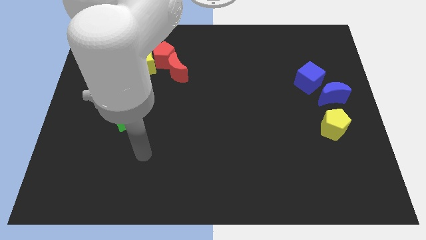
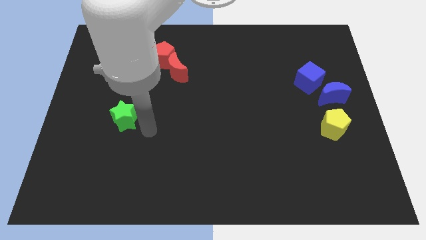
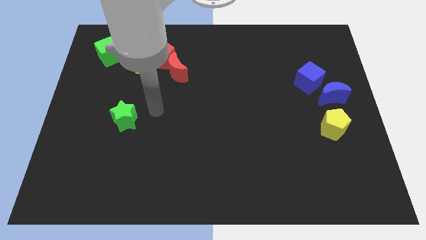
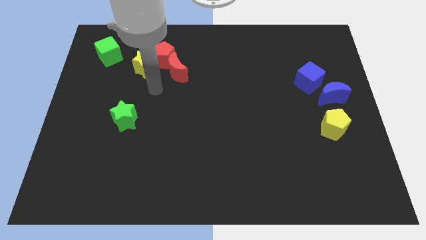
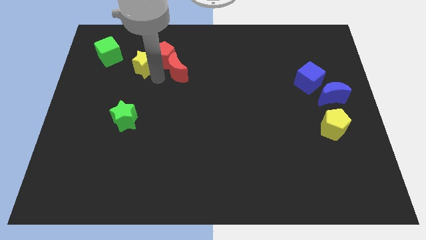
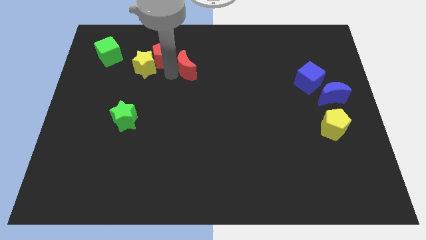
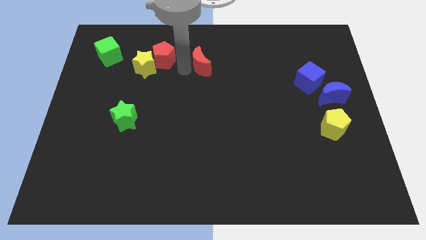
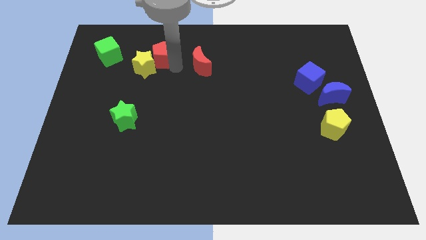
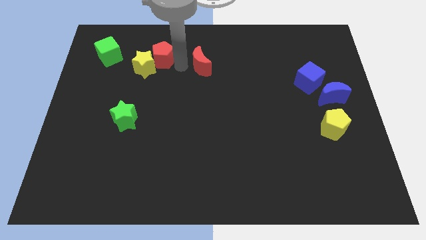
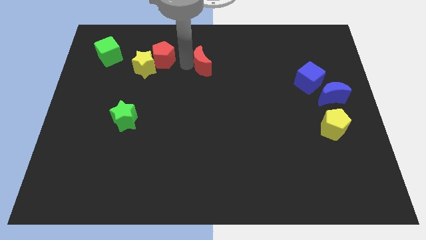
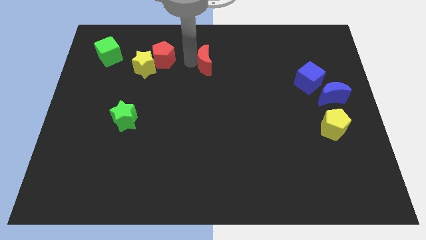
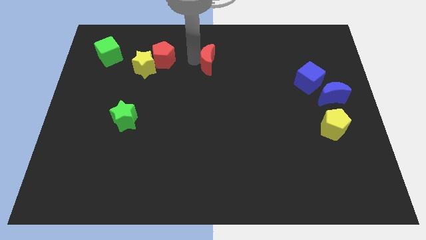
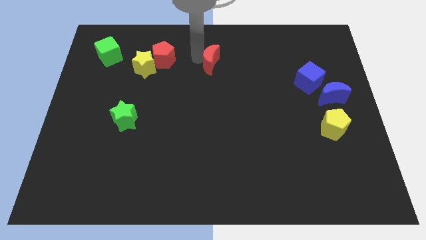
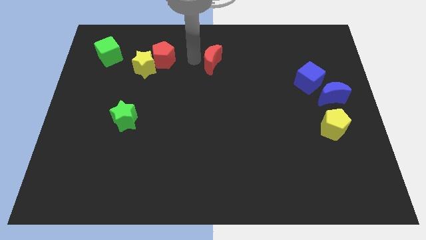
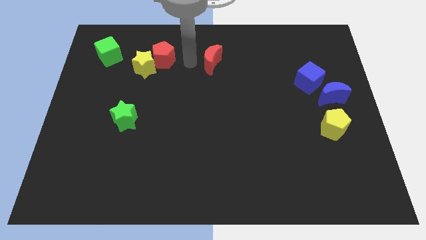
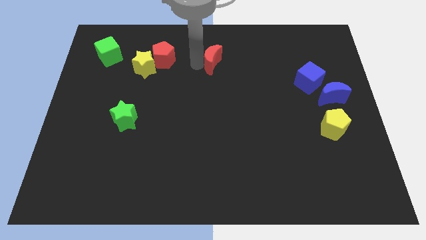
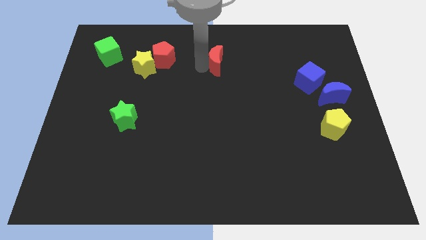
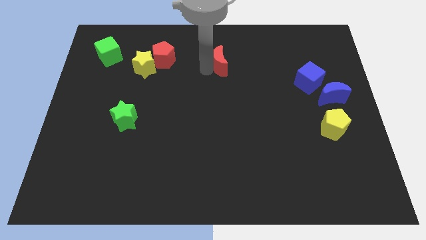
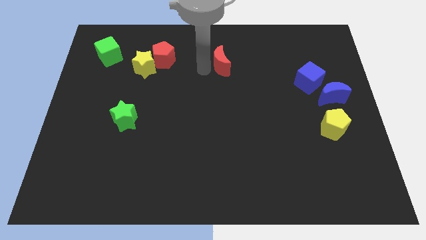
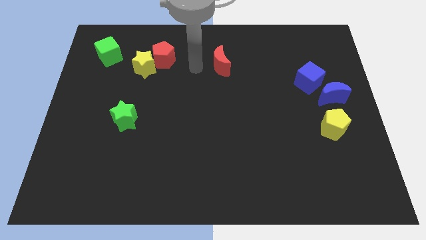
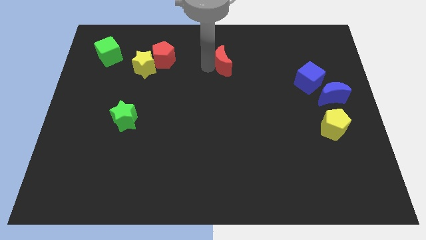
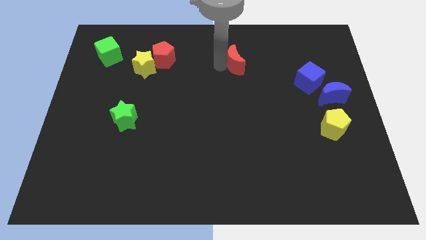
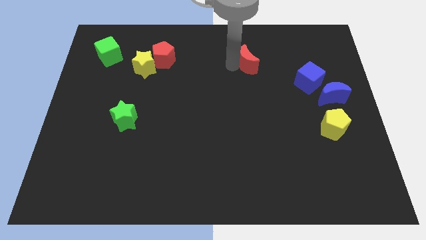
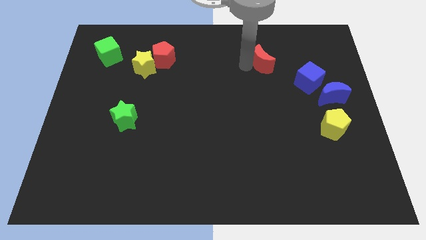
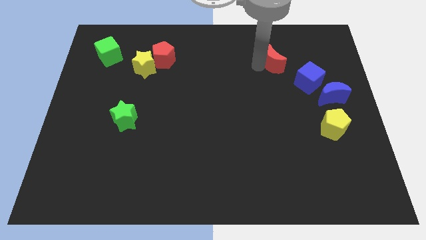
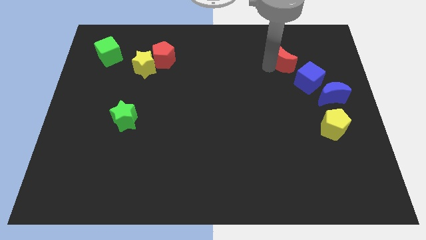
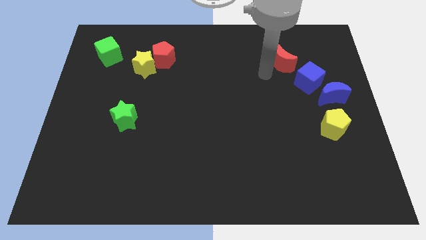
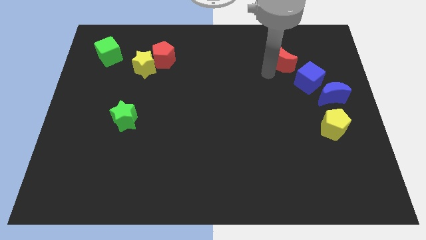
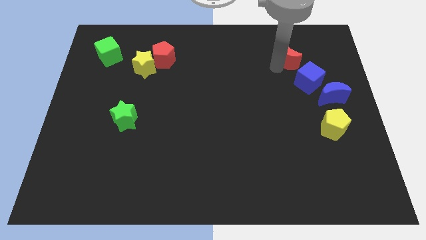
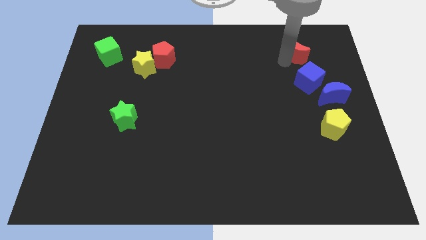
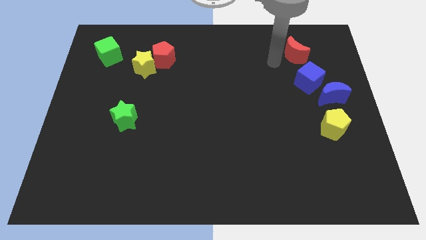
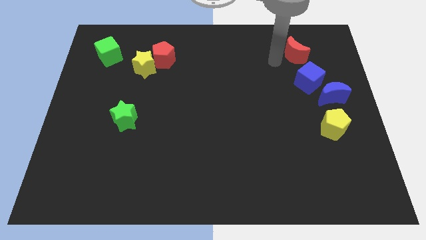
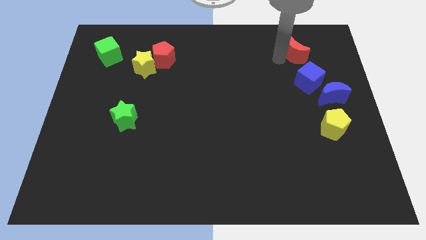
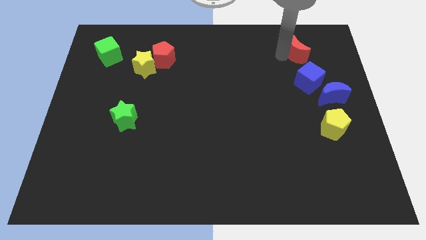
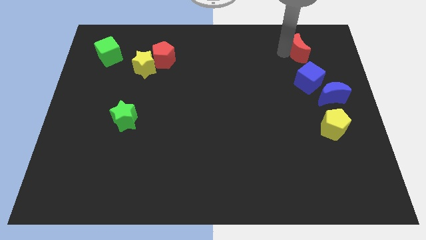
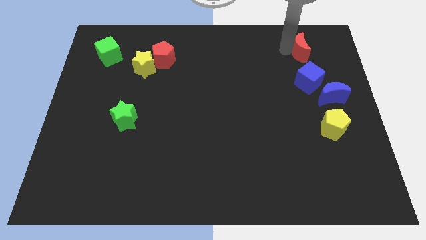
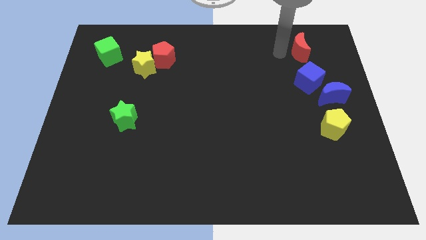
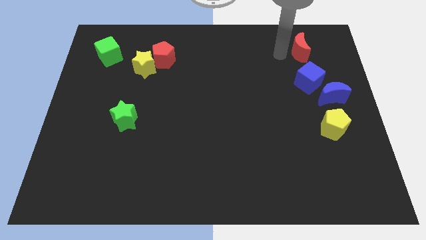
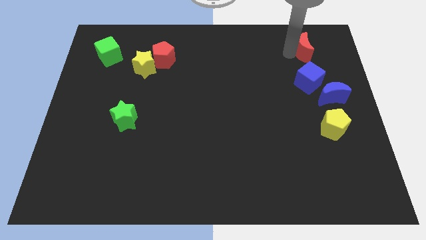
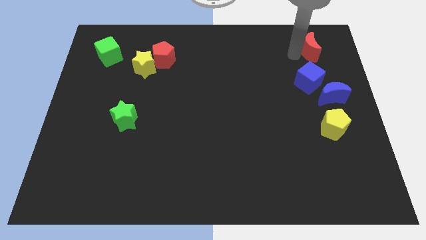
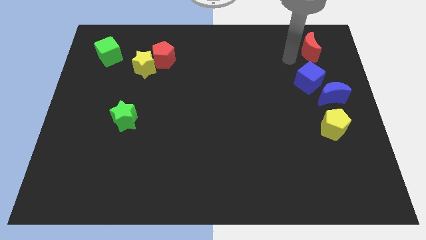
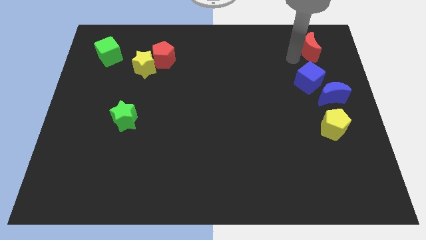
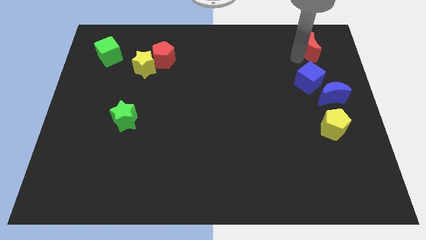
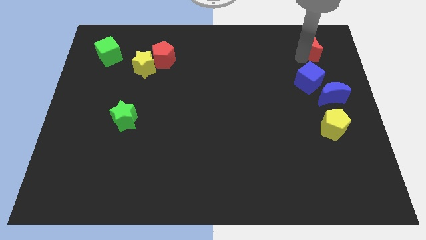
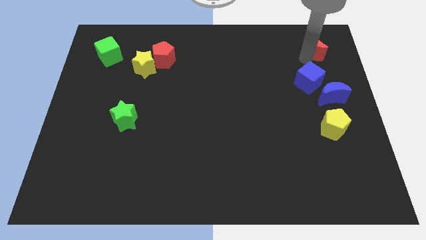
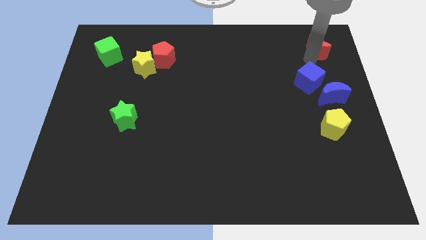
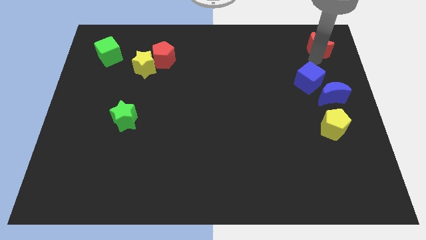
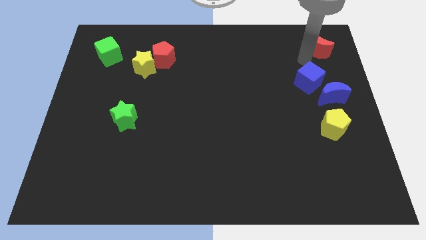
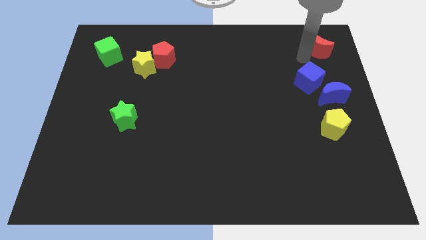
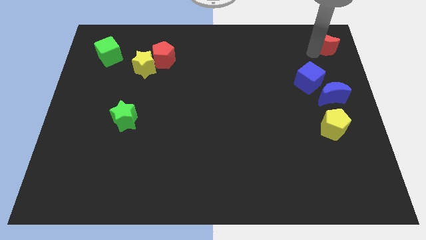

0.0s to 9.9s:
push the red moon to the top right of the board

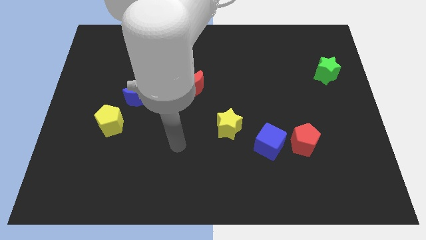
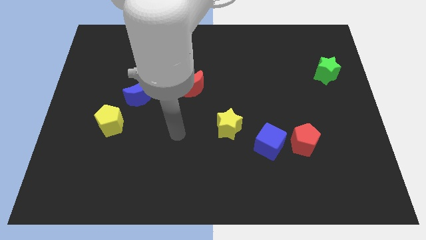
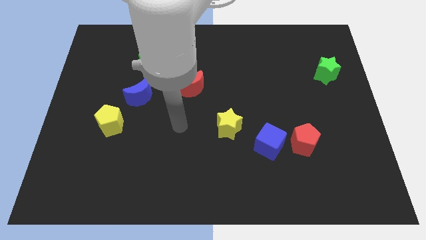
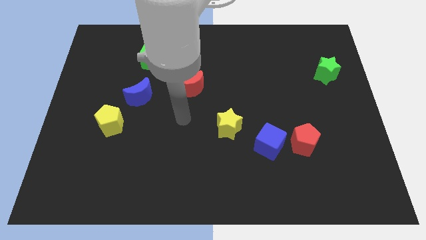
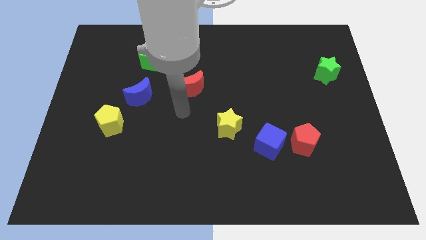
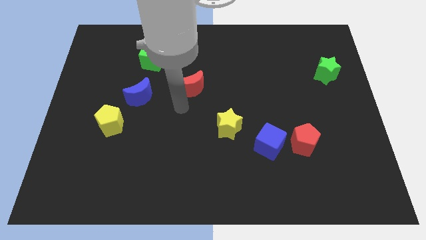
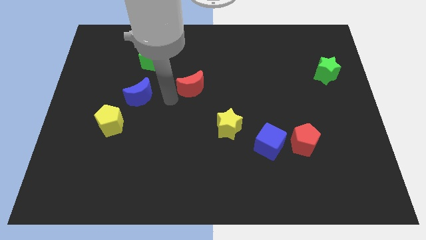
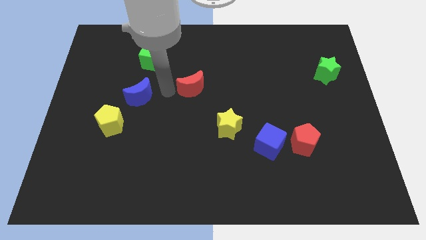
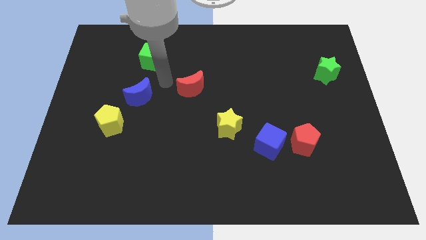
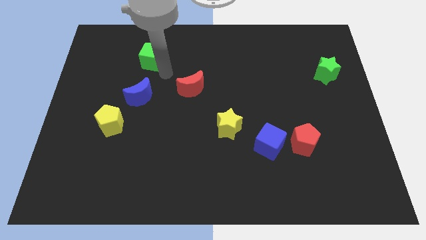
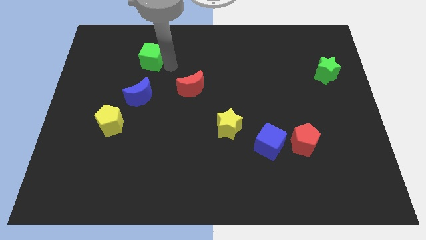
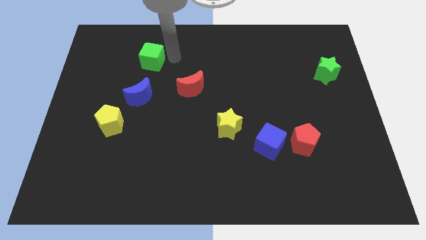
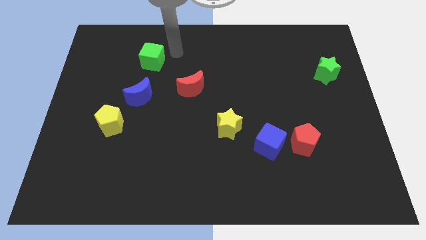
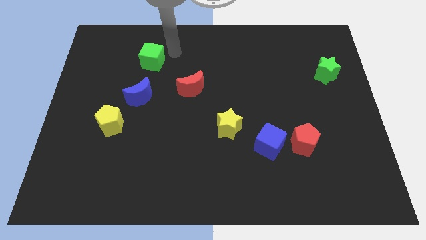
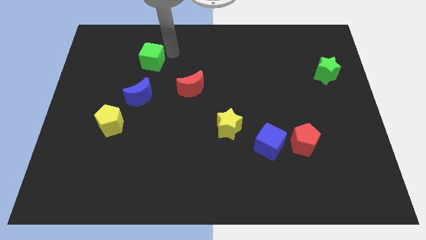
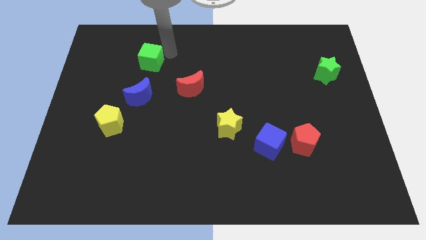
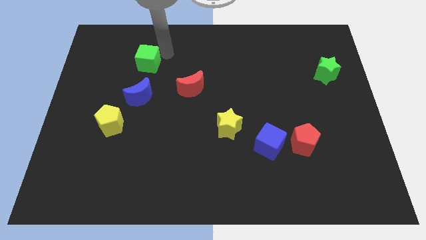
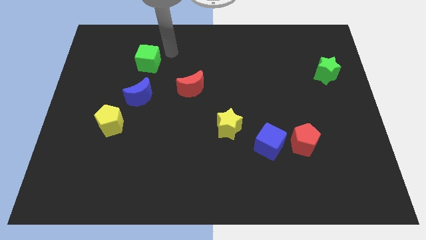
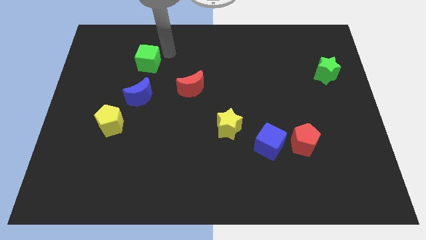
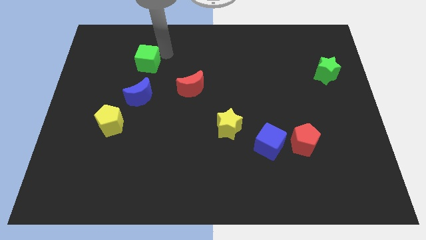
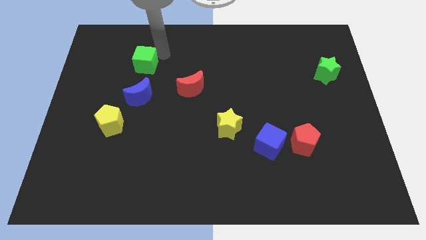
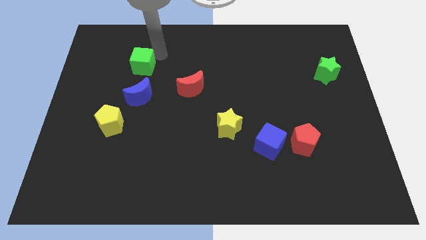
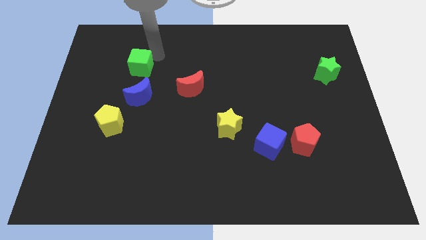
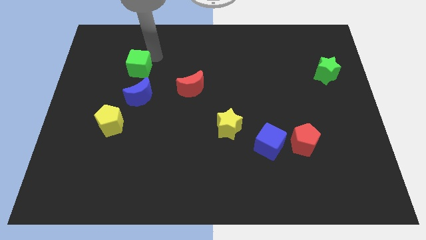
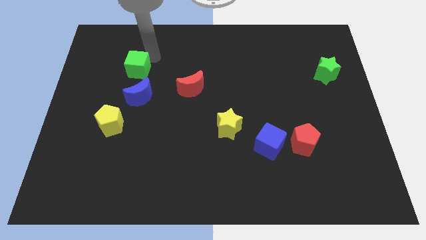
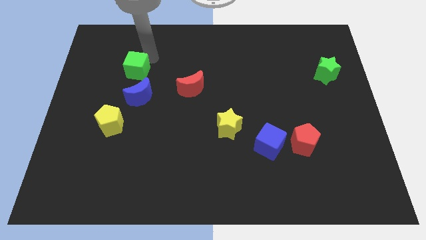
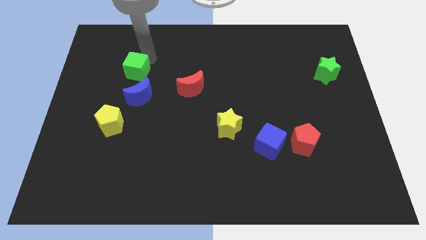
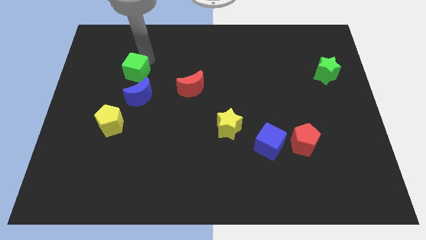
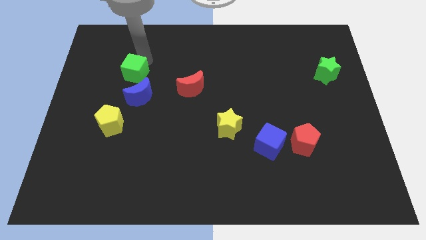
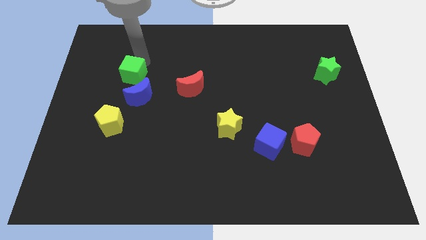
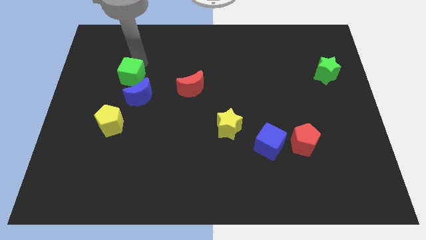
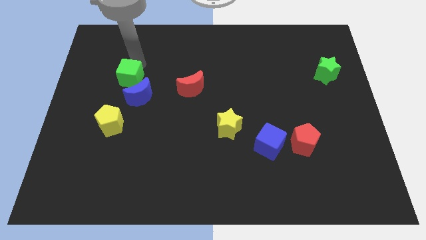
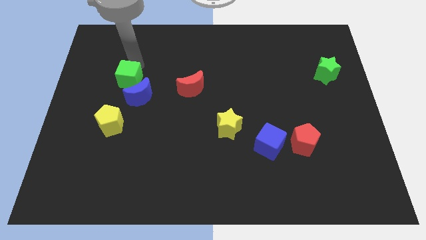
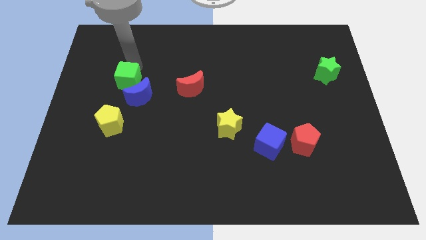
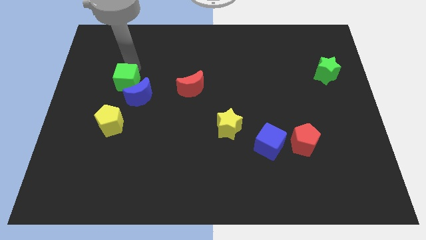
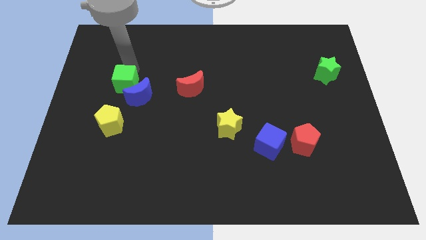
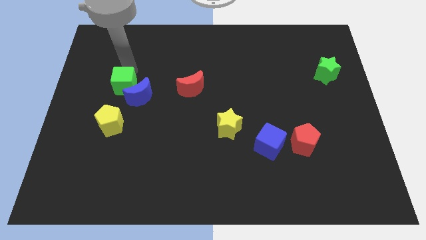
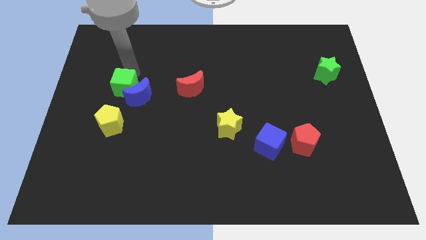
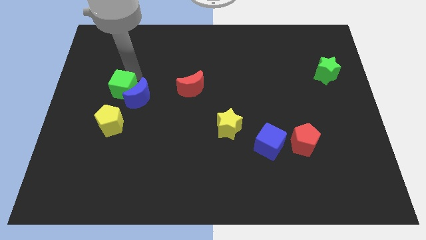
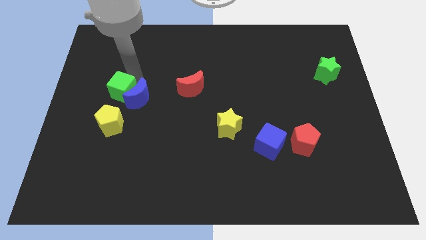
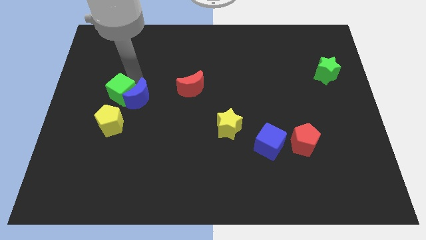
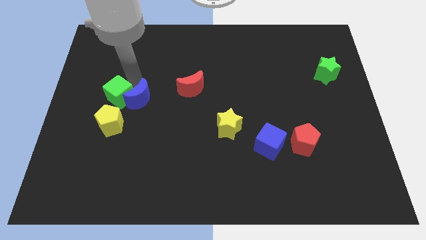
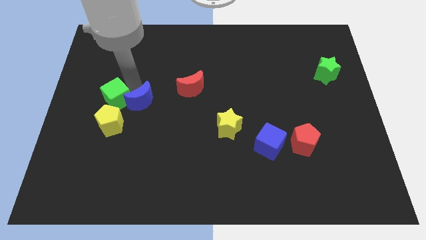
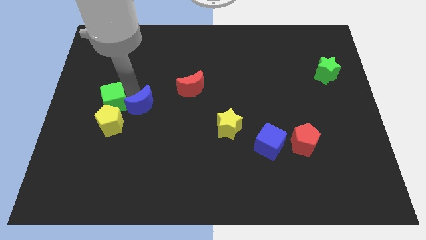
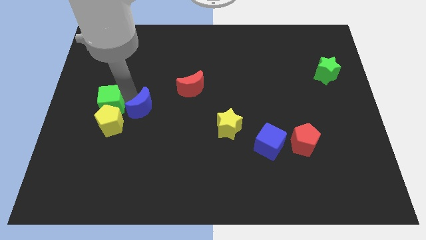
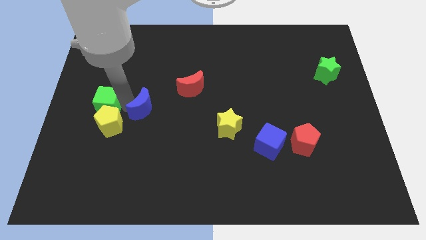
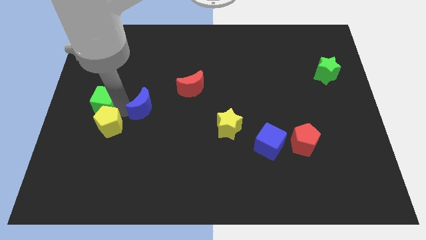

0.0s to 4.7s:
slide the green cube to the center left
